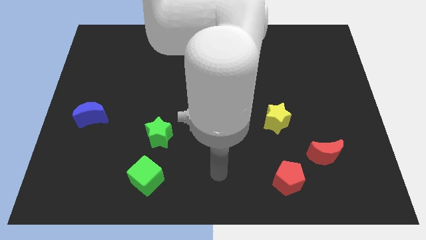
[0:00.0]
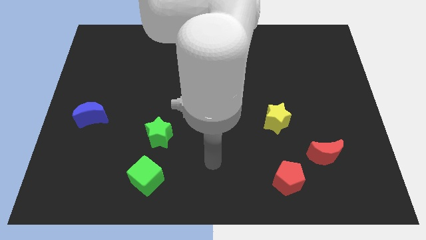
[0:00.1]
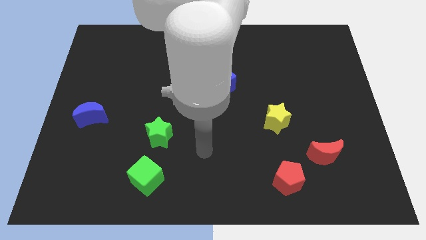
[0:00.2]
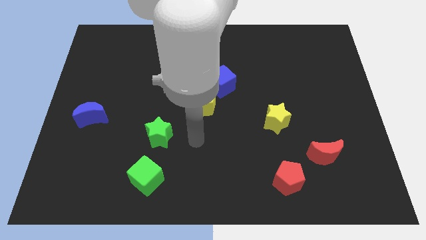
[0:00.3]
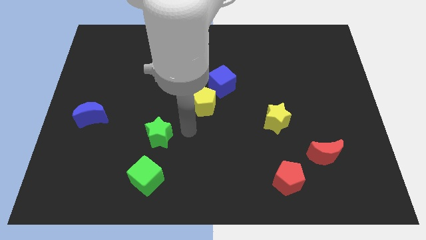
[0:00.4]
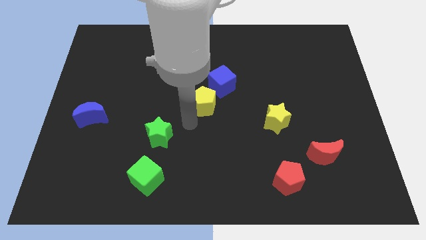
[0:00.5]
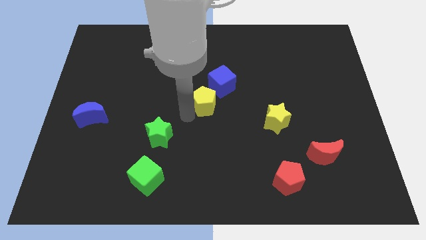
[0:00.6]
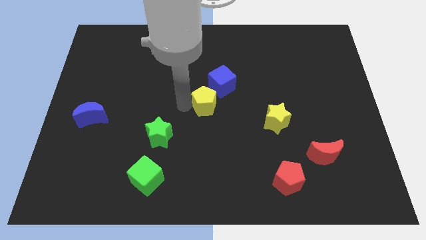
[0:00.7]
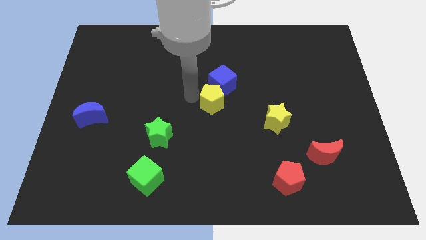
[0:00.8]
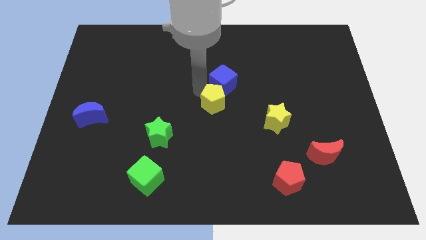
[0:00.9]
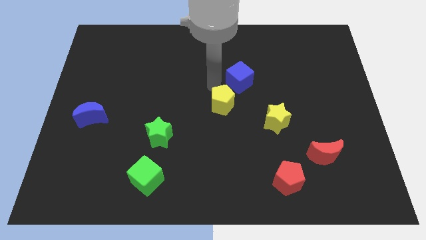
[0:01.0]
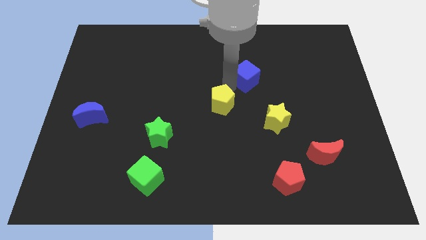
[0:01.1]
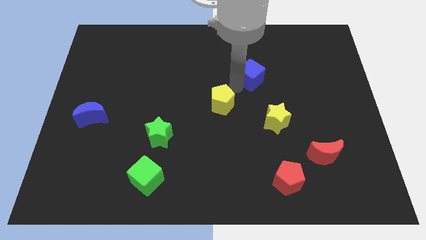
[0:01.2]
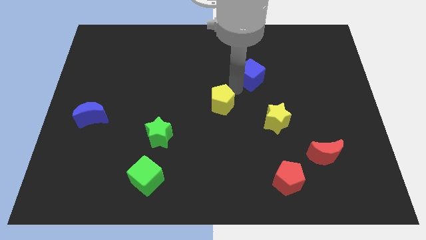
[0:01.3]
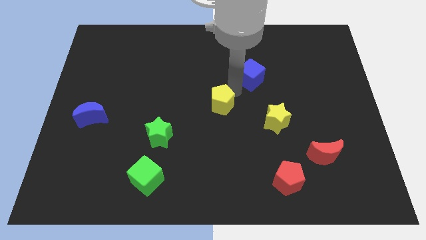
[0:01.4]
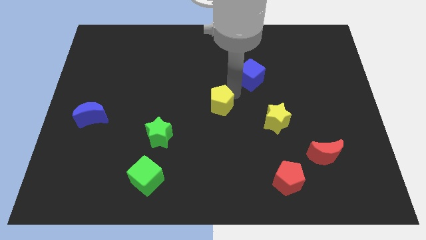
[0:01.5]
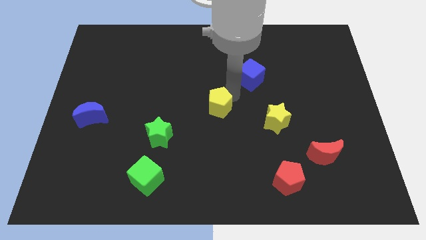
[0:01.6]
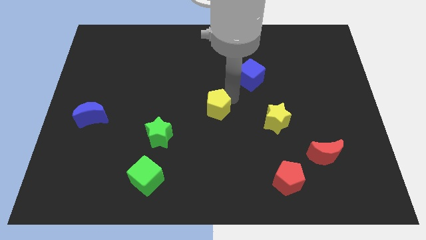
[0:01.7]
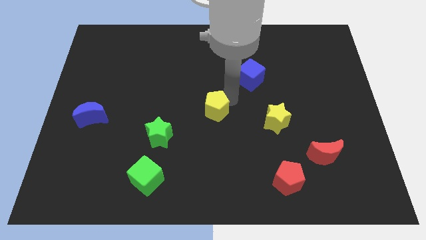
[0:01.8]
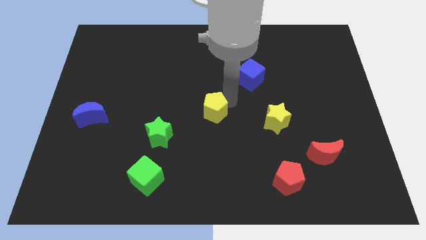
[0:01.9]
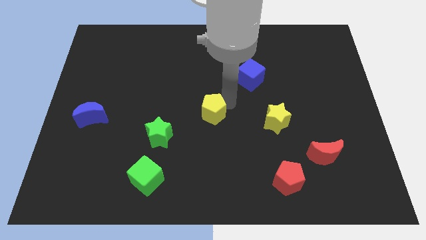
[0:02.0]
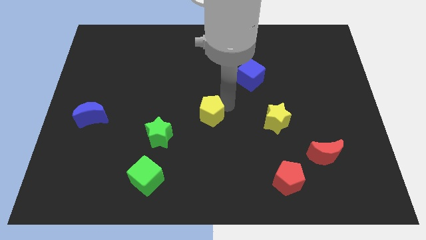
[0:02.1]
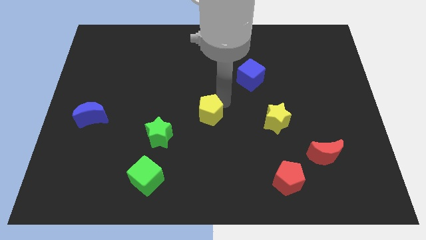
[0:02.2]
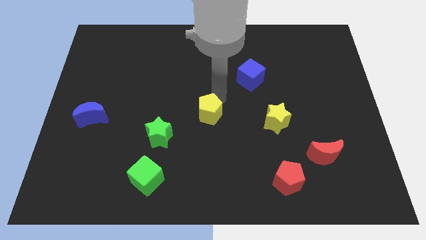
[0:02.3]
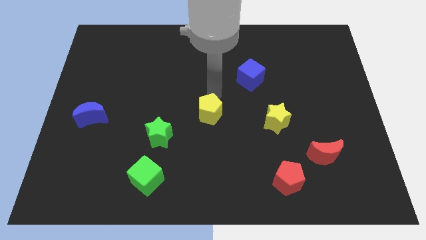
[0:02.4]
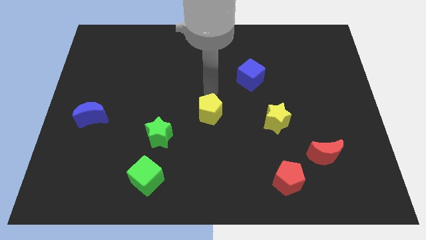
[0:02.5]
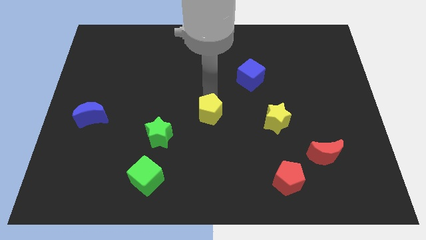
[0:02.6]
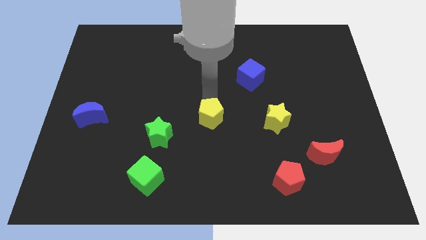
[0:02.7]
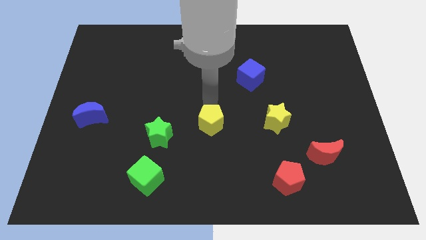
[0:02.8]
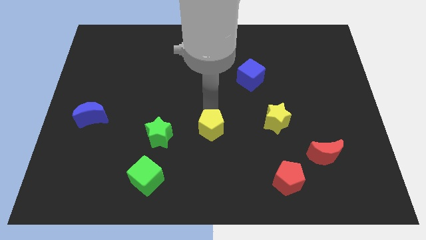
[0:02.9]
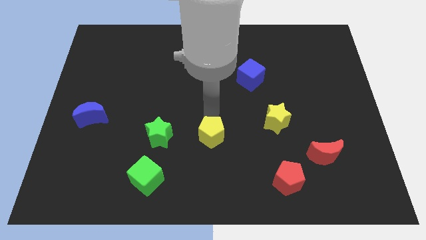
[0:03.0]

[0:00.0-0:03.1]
slightly move the yellow pentagon downwards

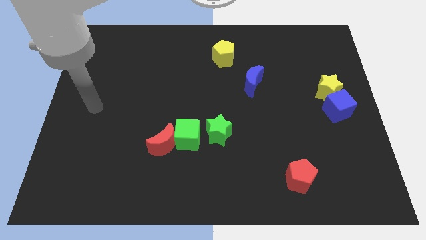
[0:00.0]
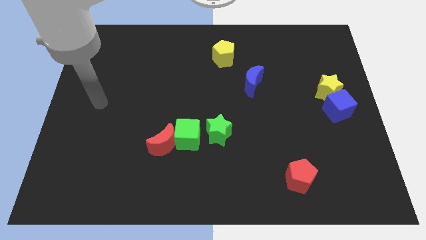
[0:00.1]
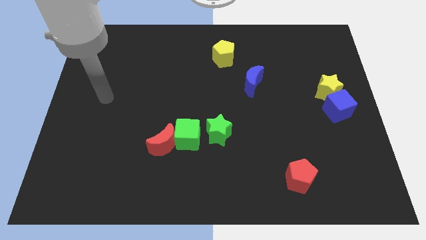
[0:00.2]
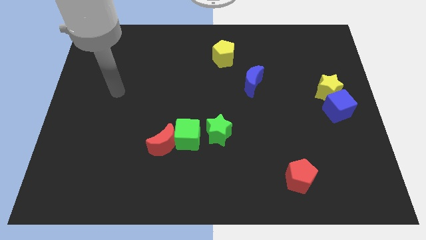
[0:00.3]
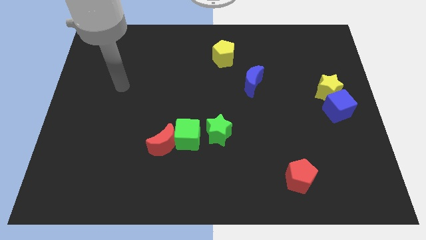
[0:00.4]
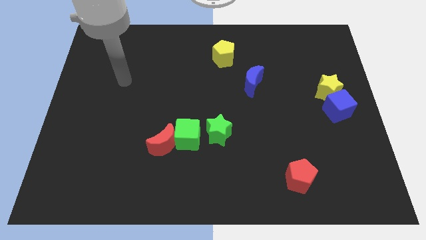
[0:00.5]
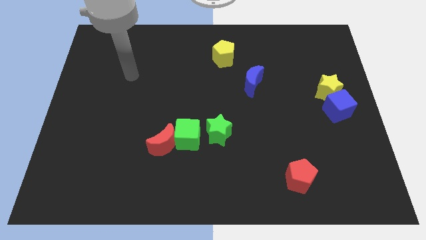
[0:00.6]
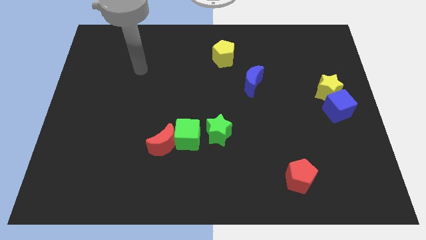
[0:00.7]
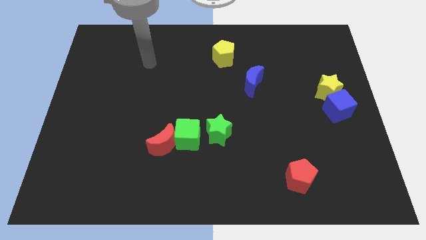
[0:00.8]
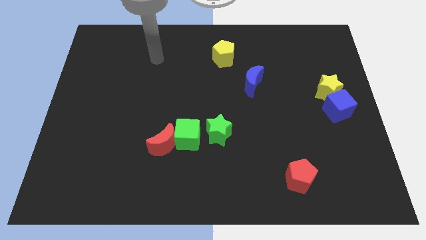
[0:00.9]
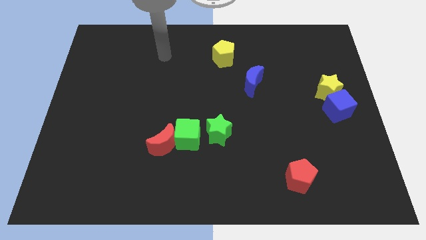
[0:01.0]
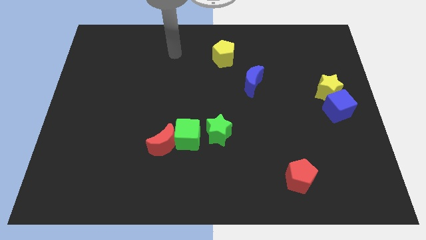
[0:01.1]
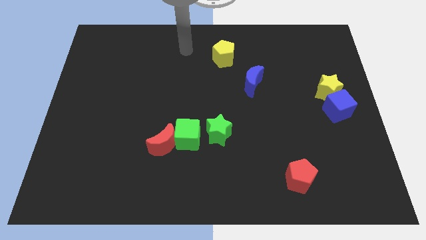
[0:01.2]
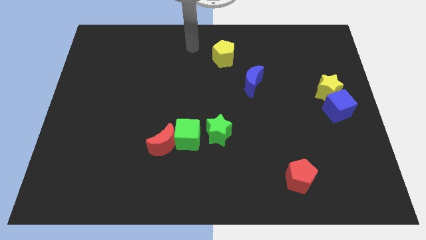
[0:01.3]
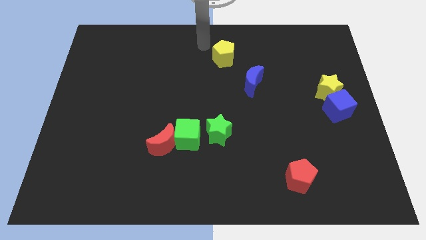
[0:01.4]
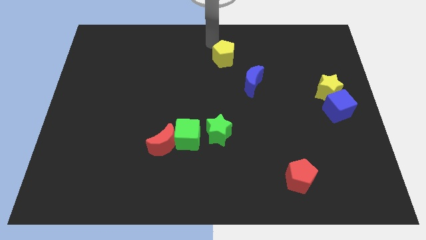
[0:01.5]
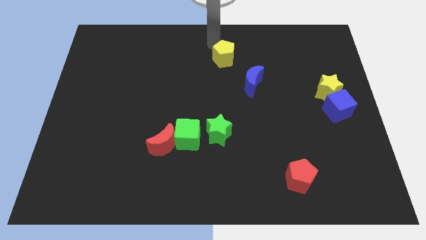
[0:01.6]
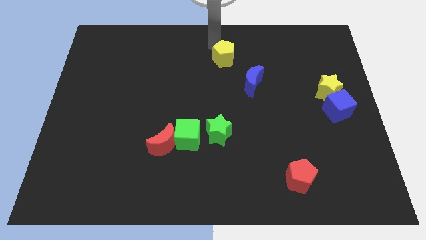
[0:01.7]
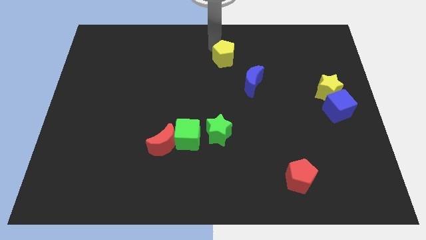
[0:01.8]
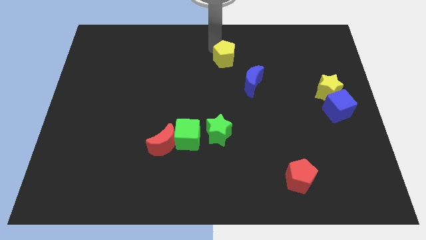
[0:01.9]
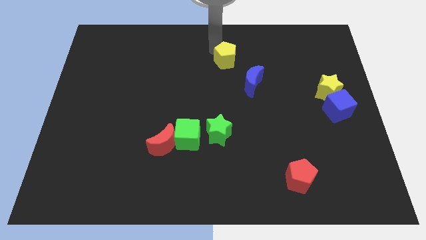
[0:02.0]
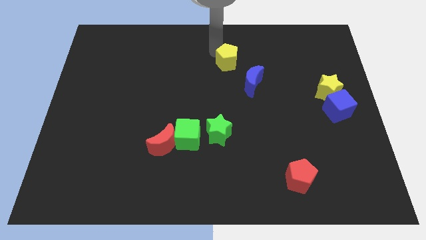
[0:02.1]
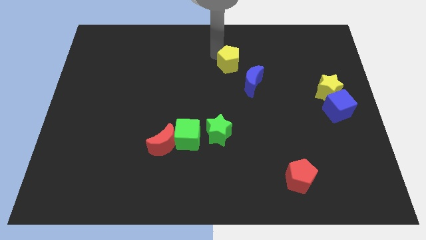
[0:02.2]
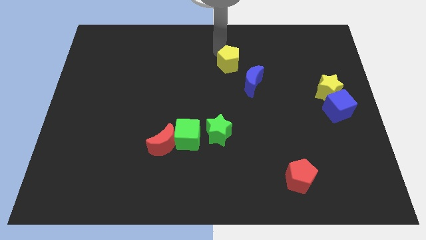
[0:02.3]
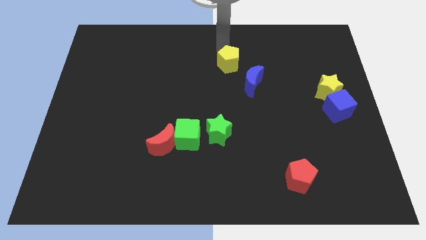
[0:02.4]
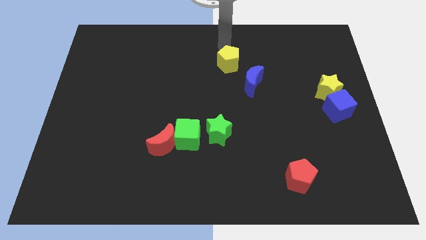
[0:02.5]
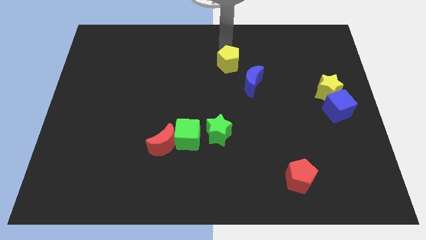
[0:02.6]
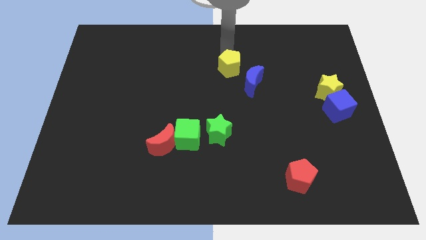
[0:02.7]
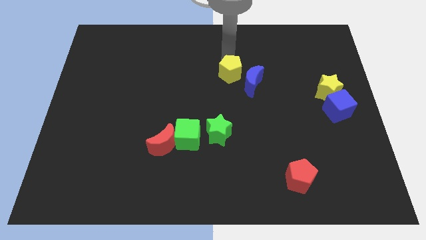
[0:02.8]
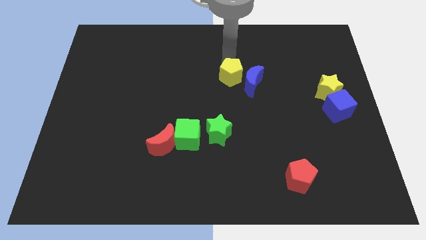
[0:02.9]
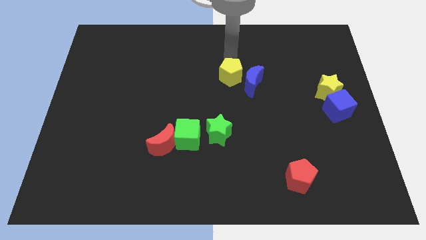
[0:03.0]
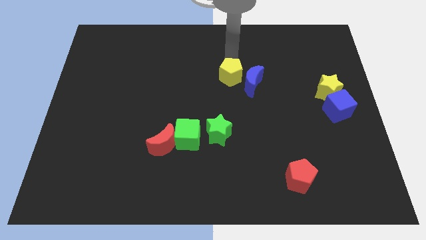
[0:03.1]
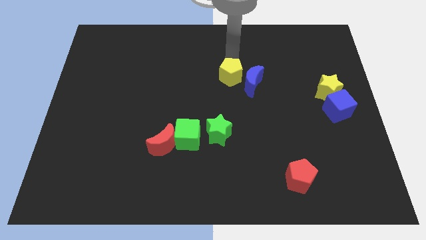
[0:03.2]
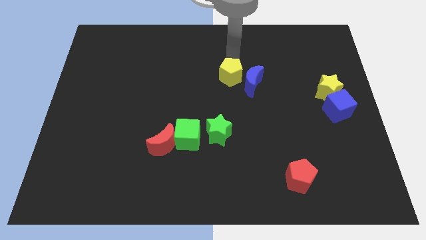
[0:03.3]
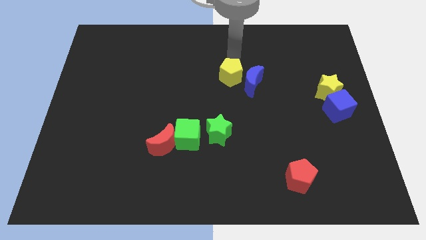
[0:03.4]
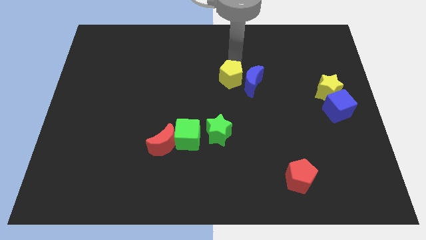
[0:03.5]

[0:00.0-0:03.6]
push the yellow pentagon downwards a bit

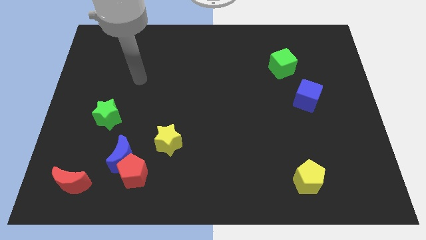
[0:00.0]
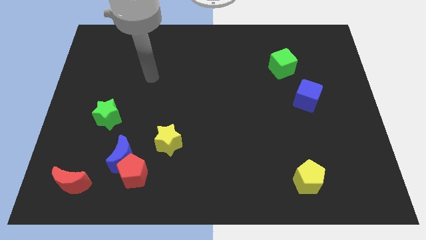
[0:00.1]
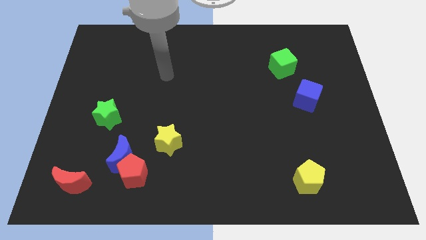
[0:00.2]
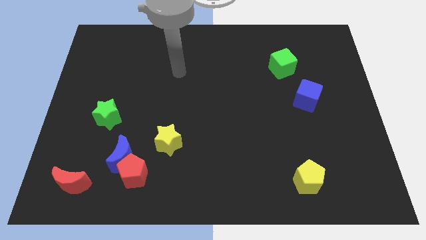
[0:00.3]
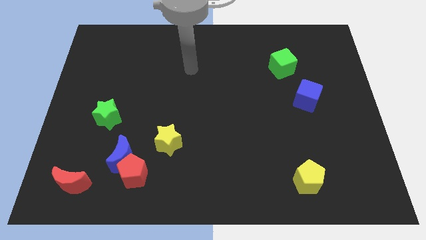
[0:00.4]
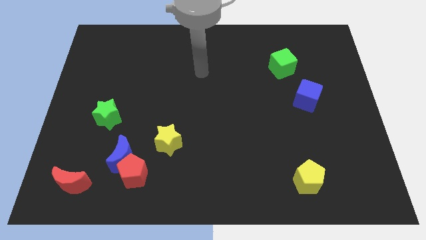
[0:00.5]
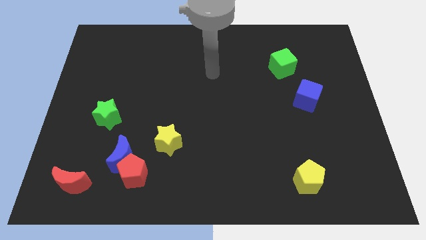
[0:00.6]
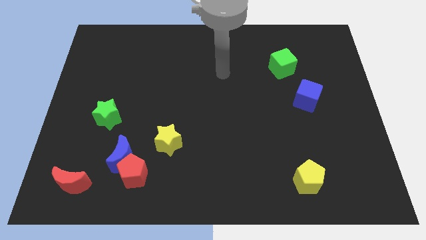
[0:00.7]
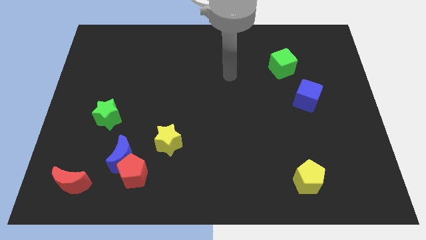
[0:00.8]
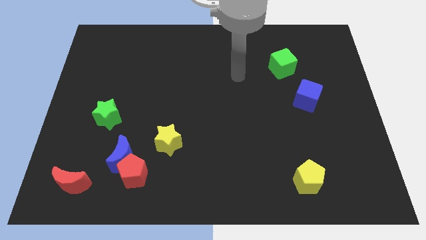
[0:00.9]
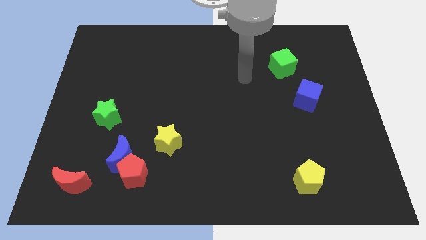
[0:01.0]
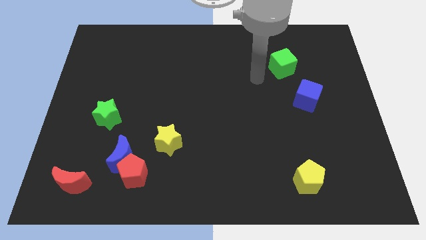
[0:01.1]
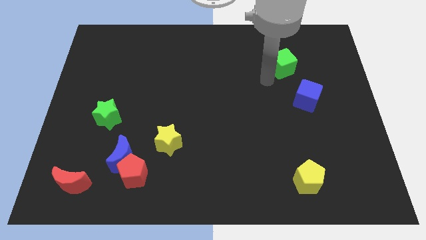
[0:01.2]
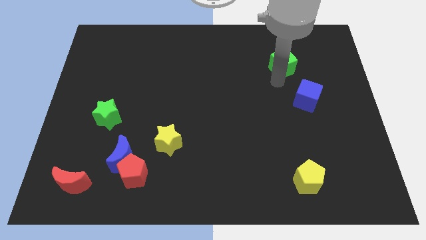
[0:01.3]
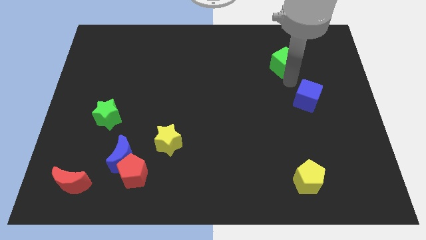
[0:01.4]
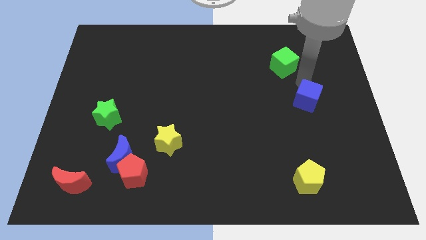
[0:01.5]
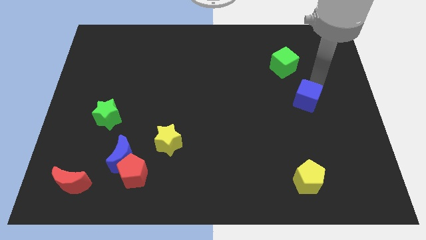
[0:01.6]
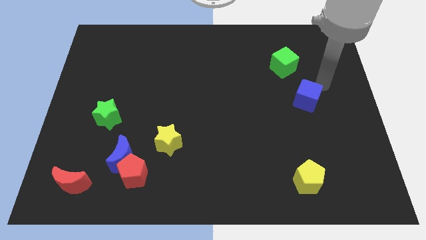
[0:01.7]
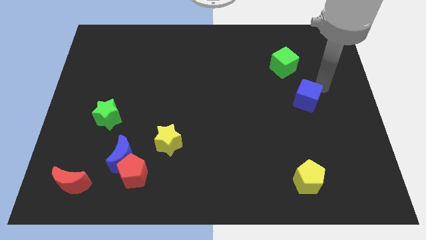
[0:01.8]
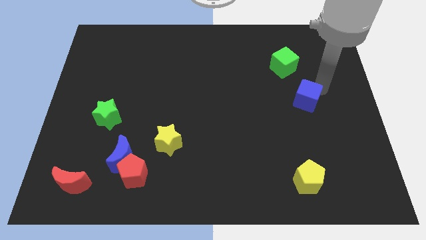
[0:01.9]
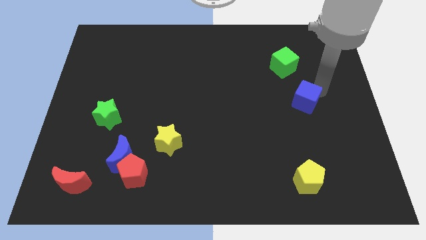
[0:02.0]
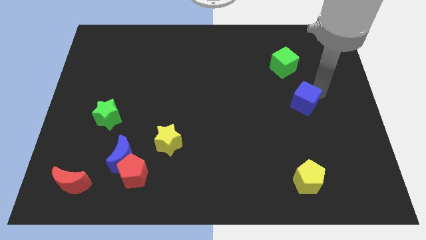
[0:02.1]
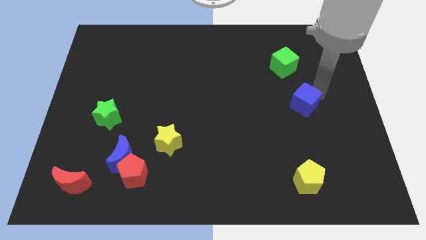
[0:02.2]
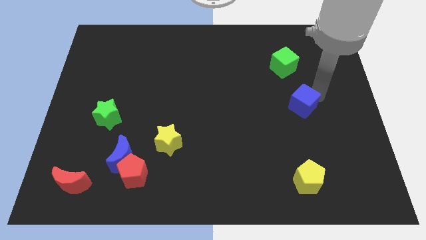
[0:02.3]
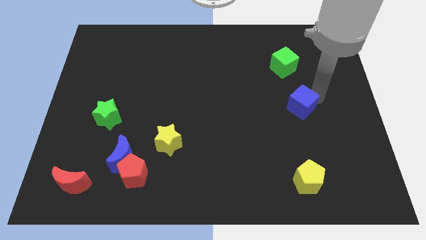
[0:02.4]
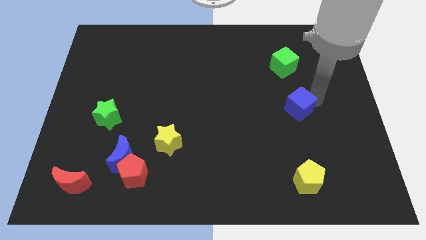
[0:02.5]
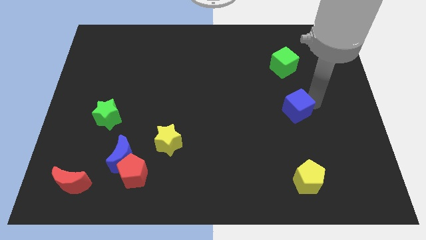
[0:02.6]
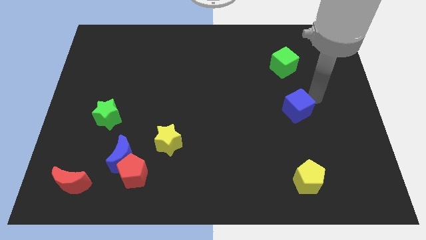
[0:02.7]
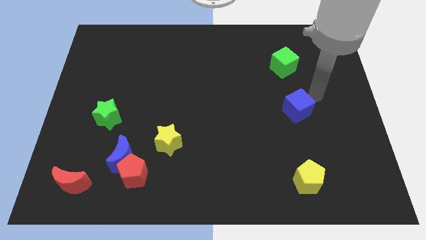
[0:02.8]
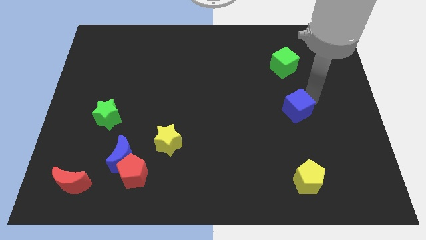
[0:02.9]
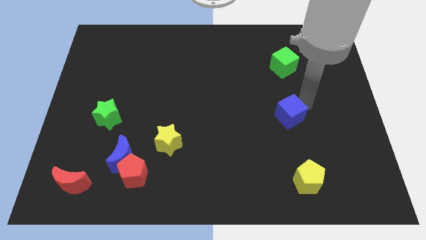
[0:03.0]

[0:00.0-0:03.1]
push the blue cube a little bit downwards and then left
